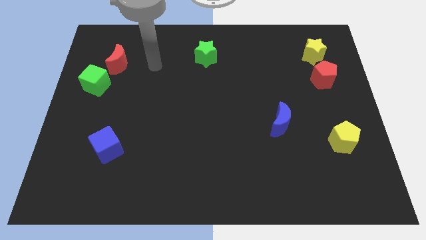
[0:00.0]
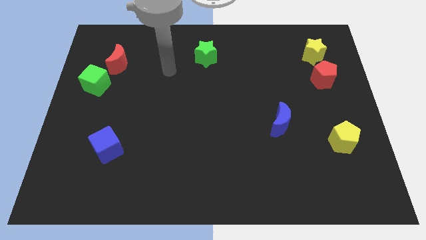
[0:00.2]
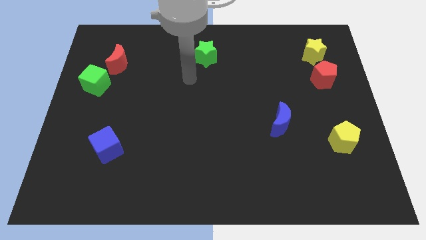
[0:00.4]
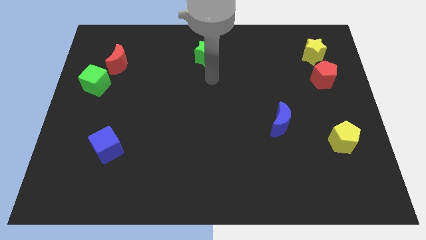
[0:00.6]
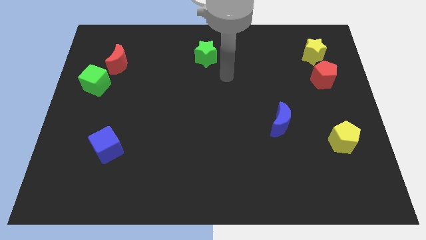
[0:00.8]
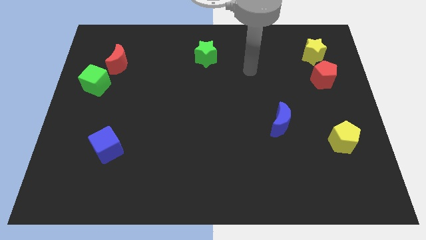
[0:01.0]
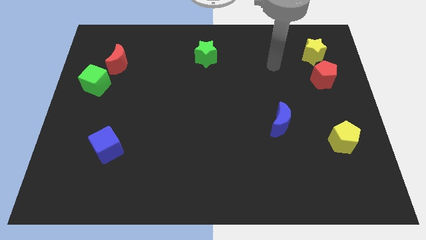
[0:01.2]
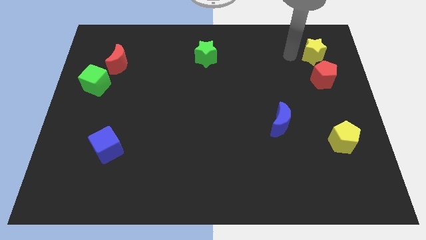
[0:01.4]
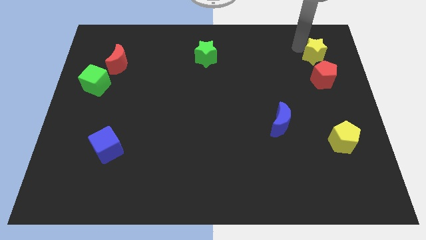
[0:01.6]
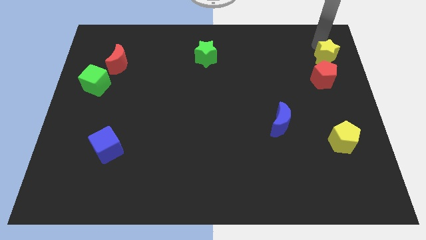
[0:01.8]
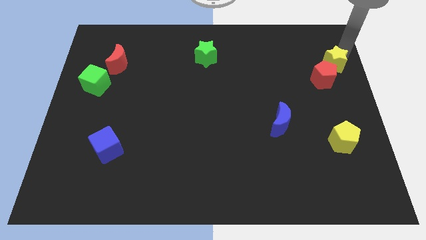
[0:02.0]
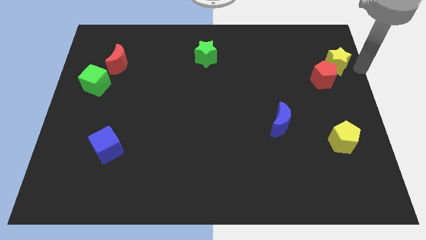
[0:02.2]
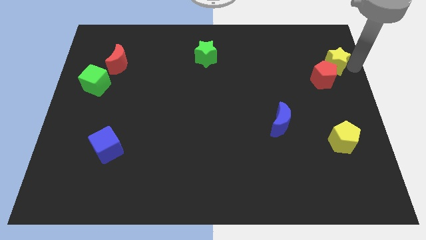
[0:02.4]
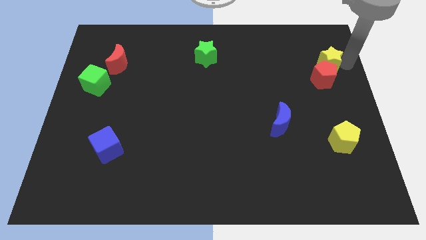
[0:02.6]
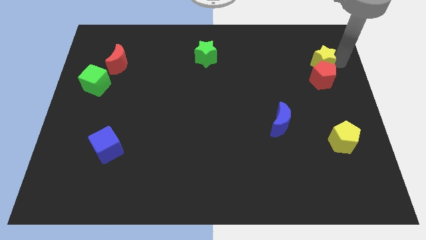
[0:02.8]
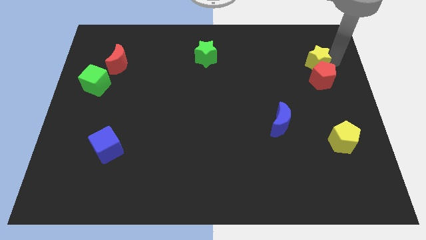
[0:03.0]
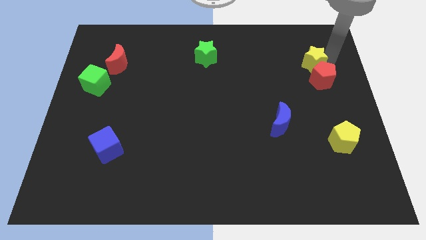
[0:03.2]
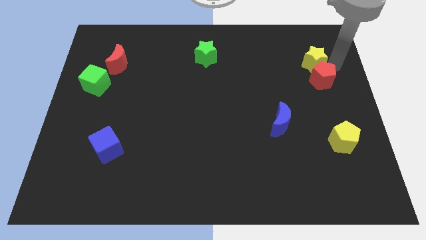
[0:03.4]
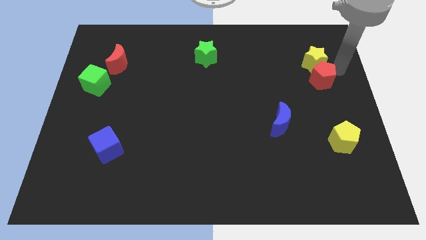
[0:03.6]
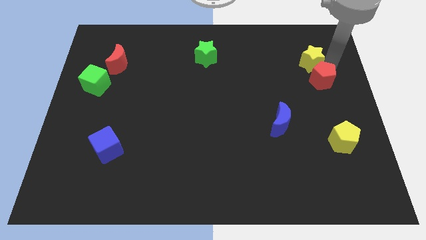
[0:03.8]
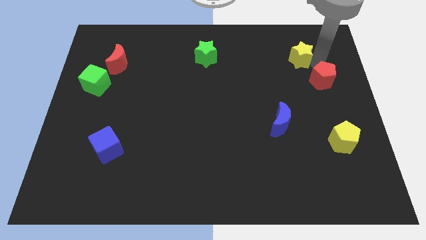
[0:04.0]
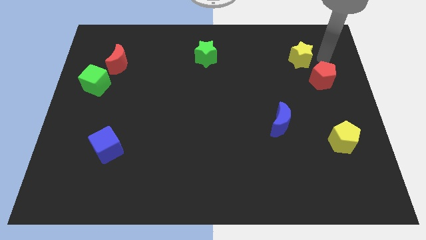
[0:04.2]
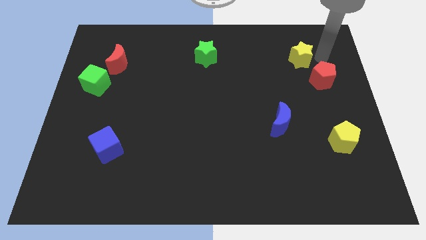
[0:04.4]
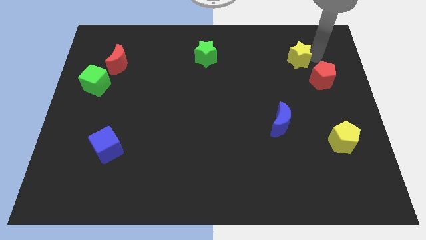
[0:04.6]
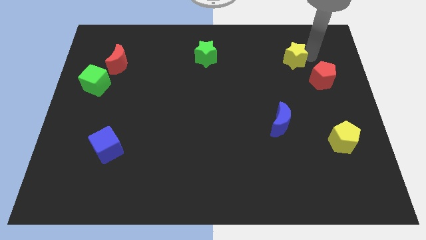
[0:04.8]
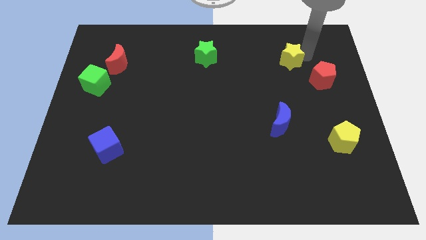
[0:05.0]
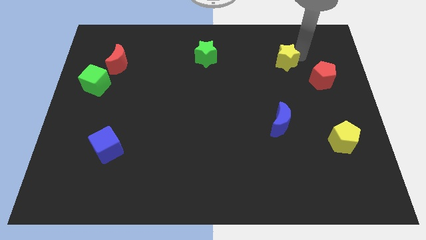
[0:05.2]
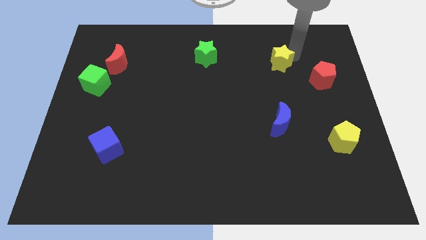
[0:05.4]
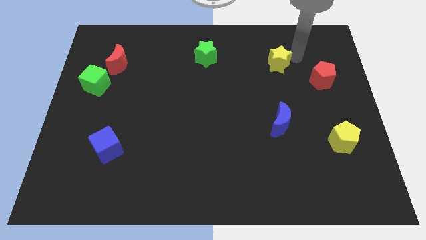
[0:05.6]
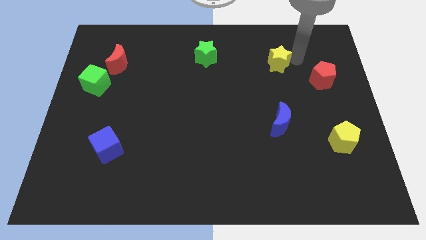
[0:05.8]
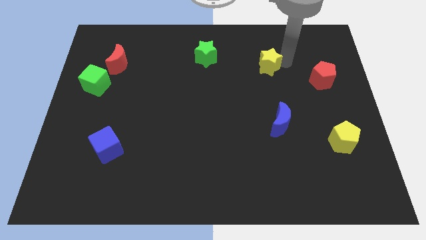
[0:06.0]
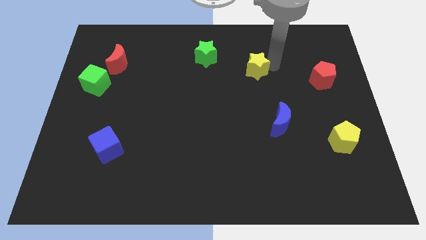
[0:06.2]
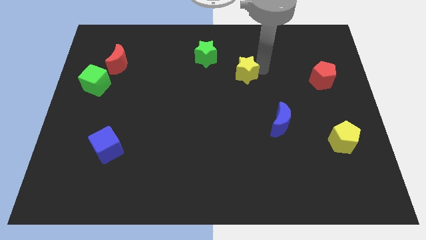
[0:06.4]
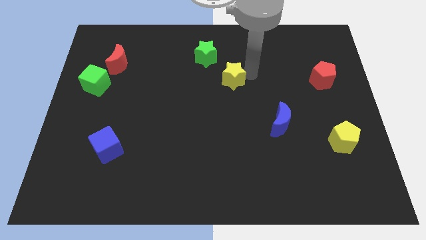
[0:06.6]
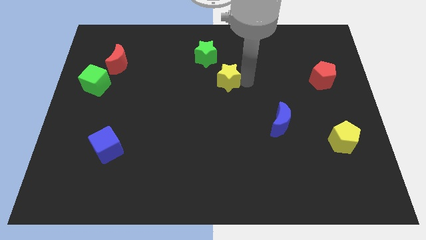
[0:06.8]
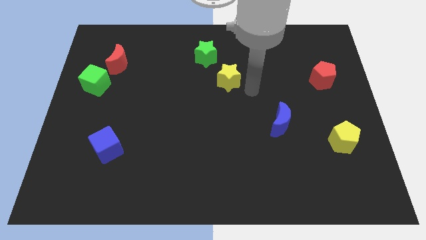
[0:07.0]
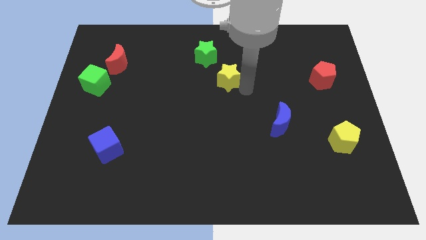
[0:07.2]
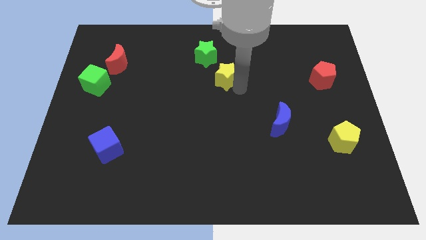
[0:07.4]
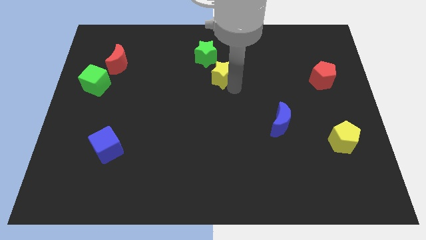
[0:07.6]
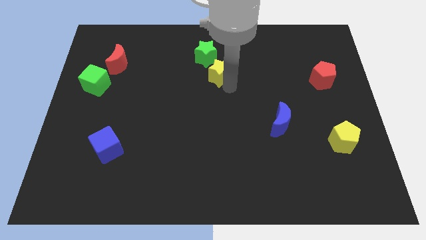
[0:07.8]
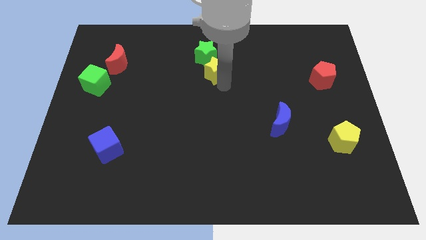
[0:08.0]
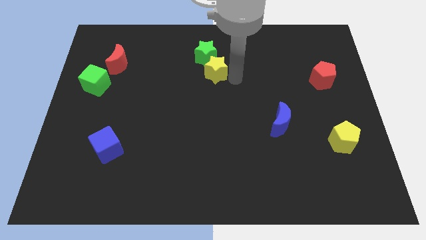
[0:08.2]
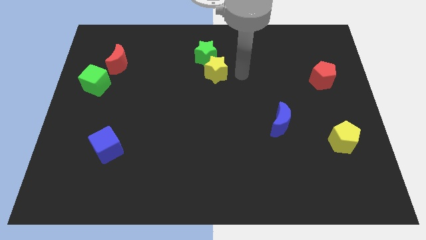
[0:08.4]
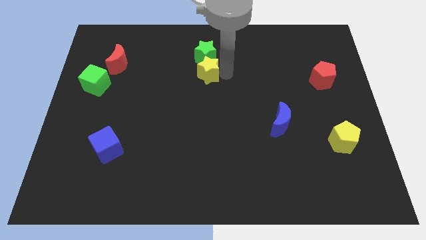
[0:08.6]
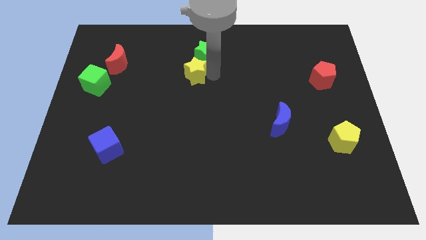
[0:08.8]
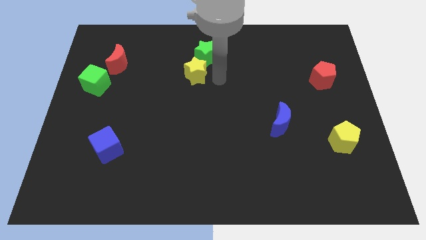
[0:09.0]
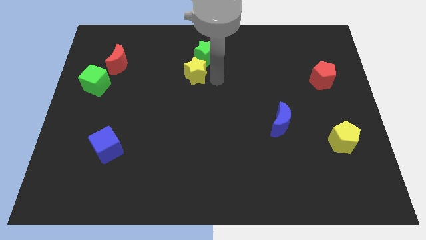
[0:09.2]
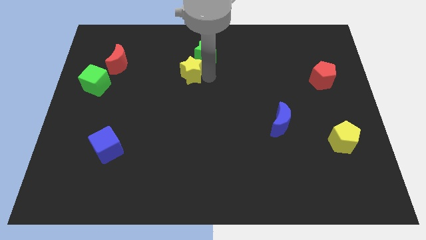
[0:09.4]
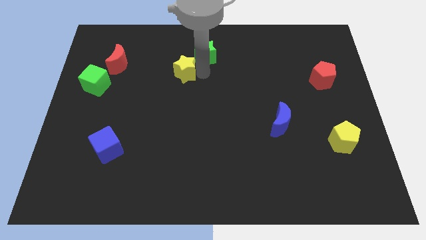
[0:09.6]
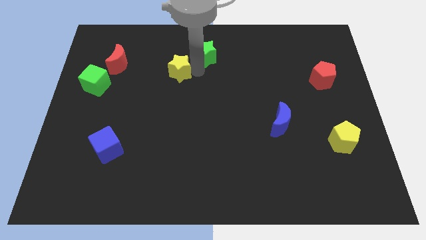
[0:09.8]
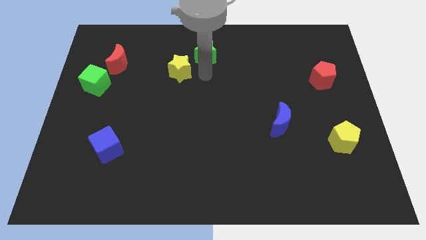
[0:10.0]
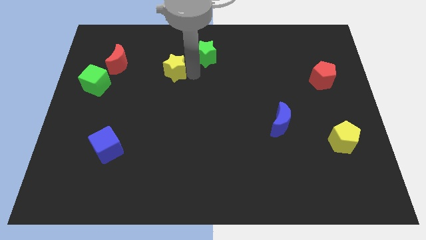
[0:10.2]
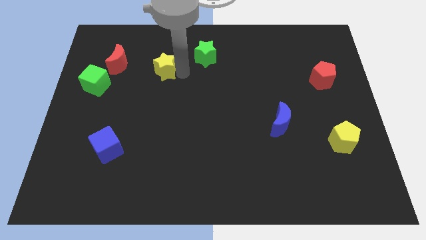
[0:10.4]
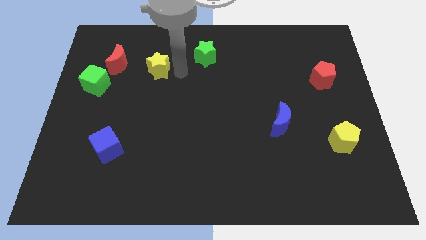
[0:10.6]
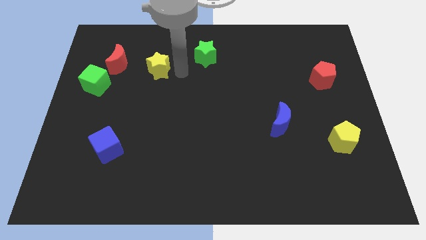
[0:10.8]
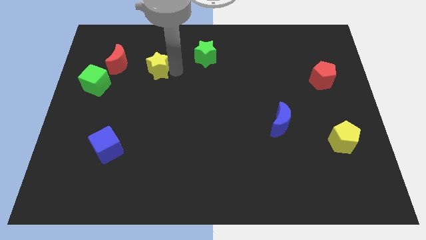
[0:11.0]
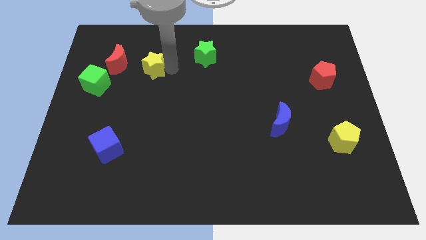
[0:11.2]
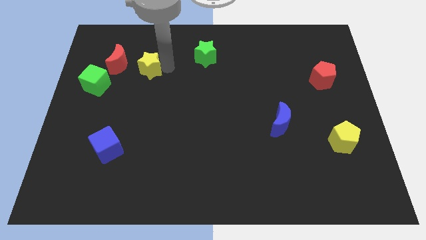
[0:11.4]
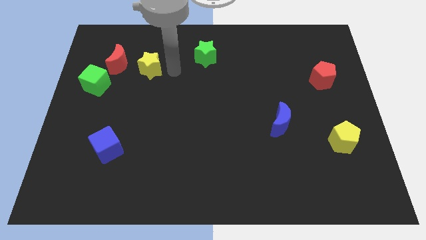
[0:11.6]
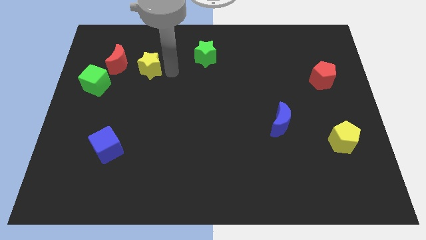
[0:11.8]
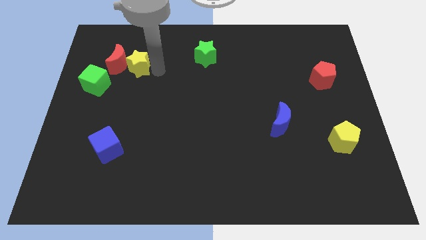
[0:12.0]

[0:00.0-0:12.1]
put the yellow star towards the red moon
